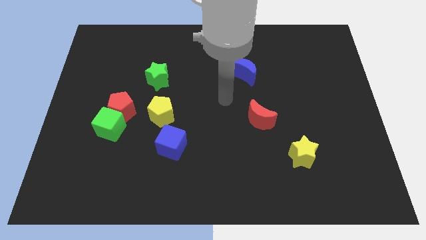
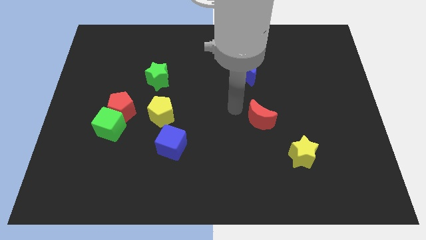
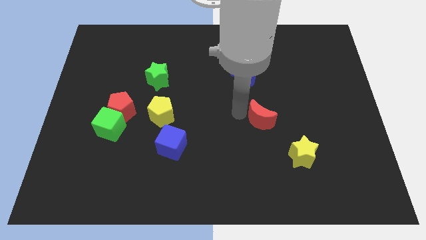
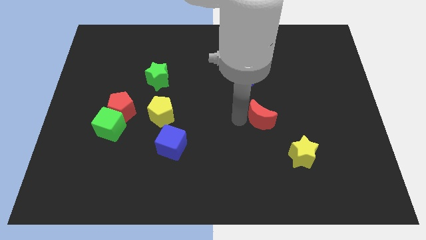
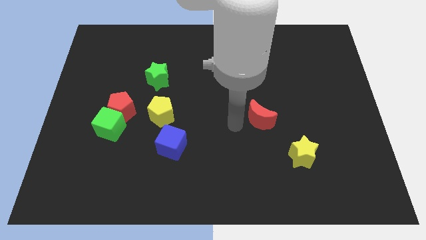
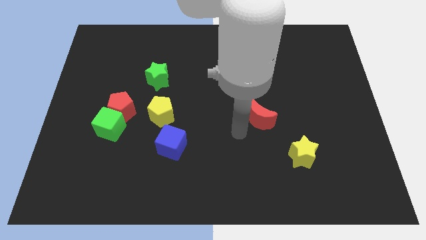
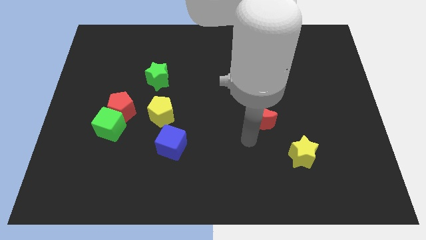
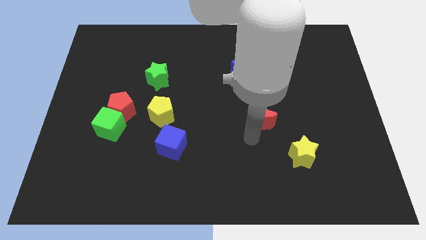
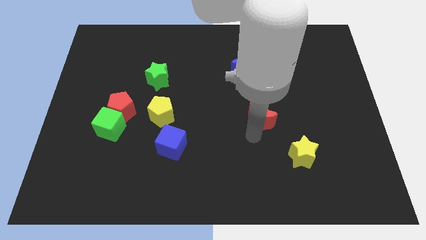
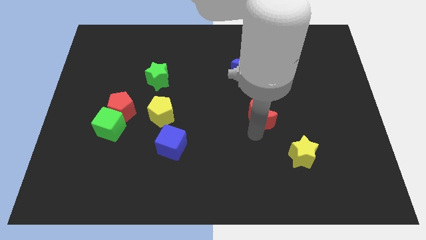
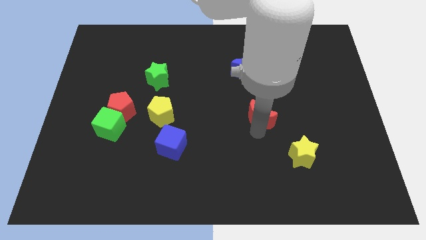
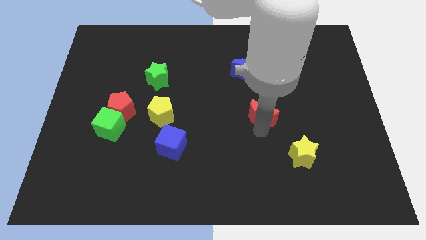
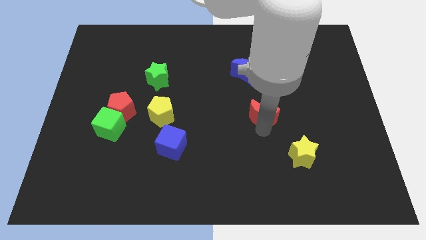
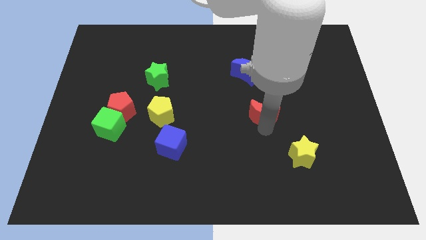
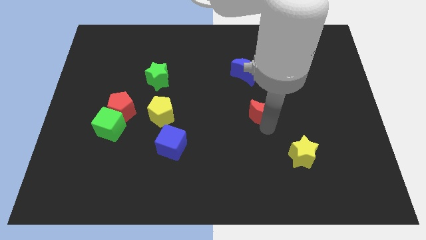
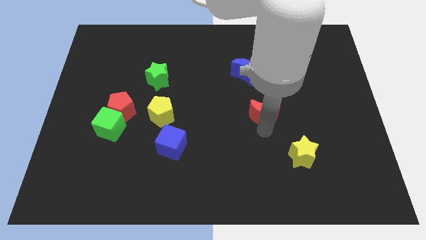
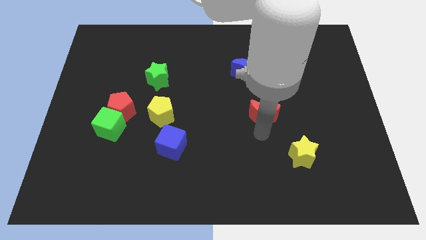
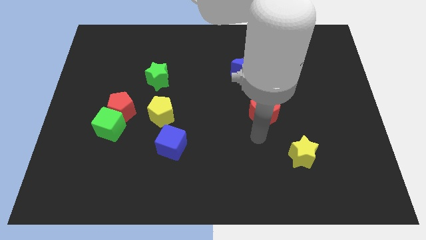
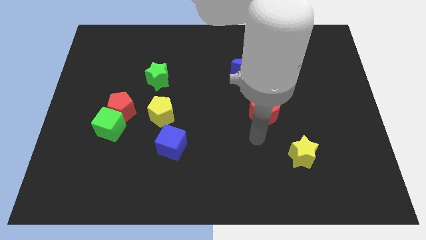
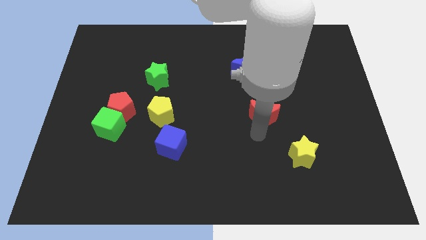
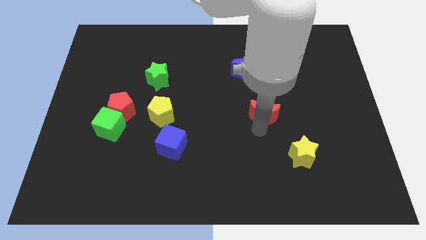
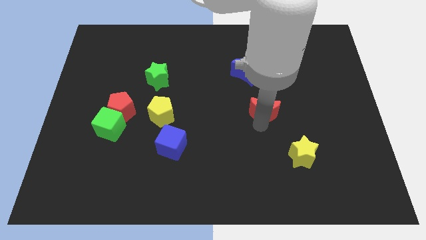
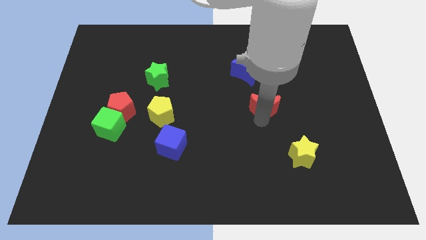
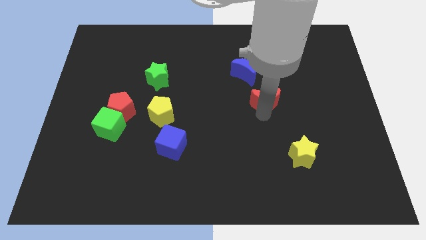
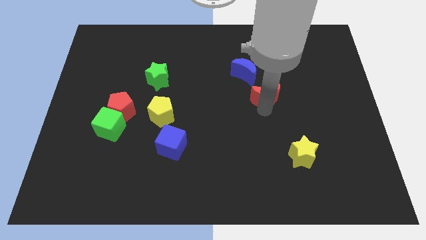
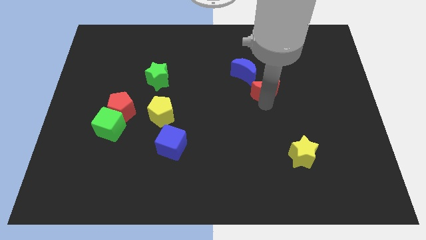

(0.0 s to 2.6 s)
move the red moon up slightly

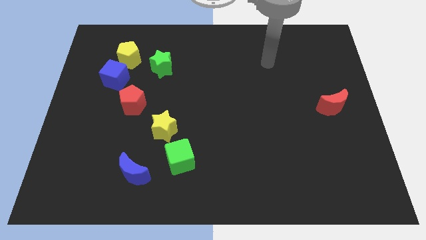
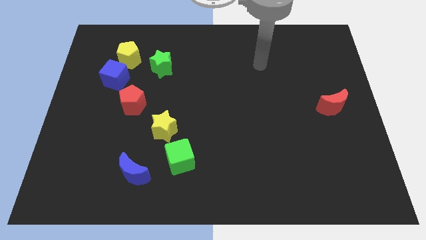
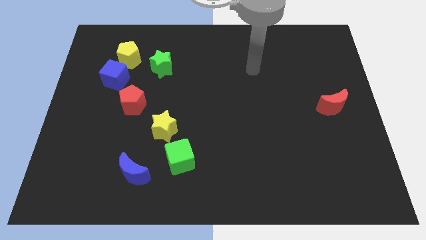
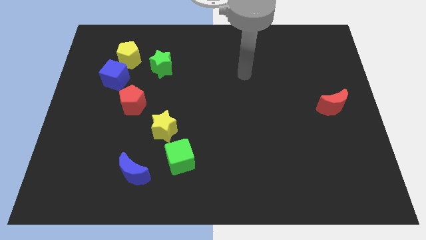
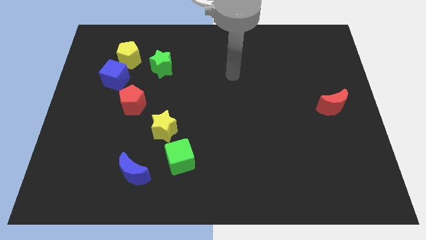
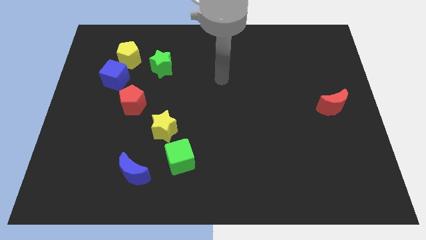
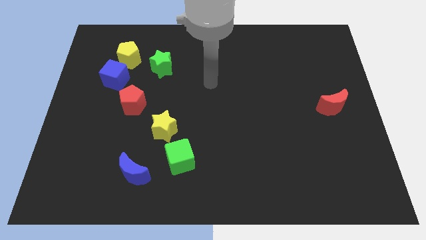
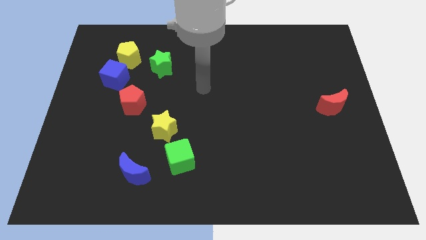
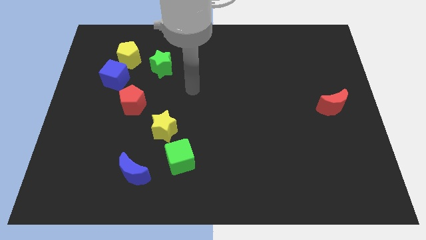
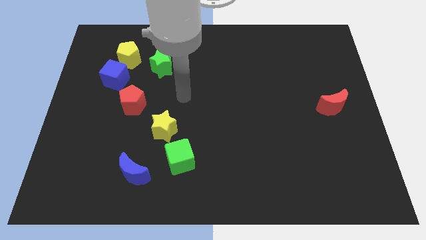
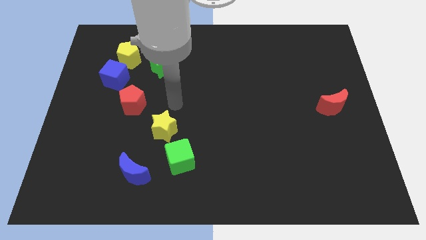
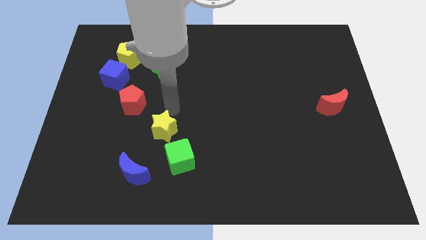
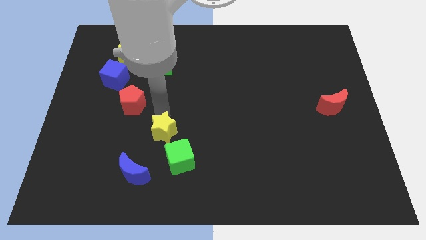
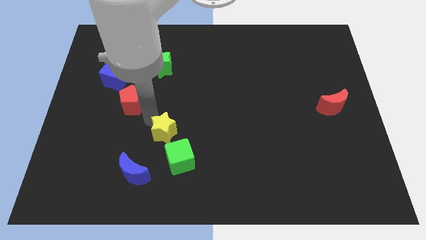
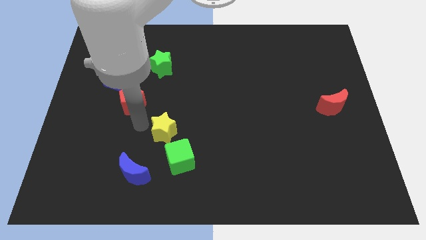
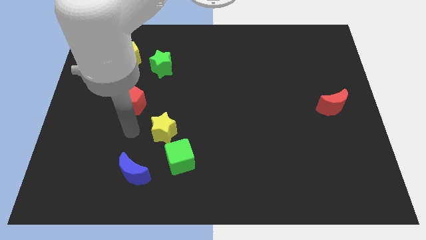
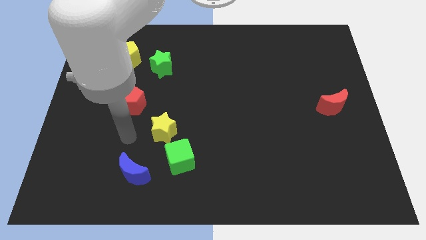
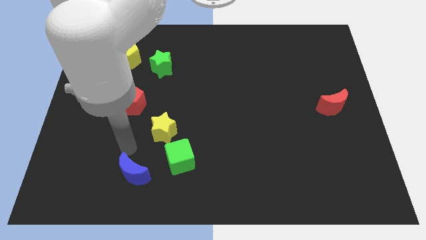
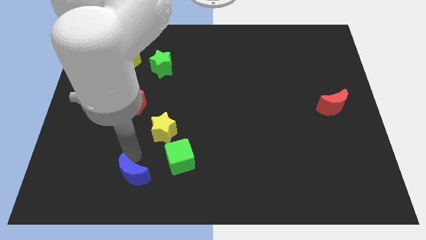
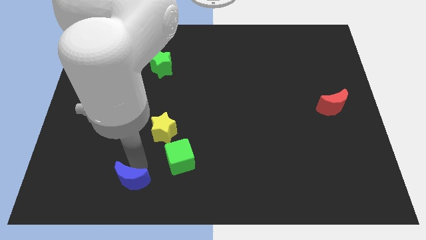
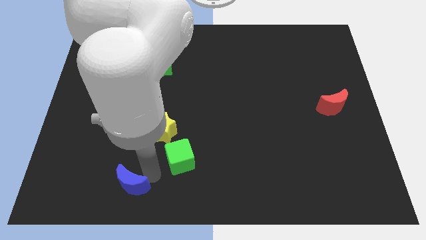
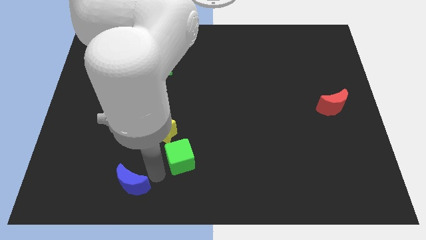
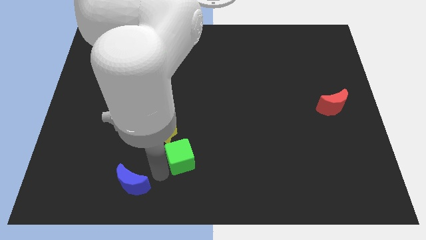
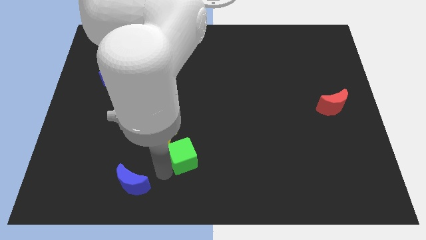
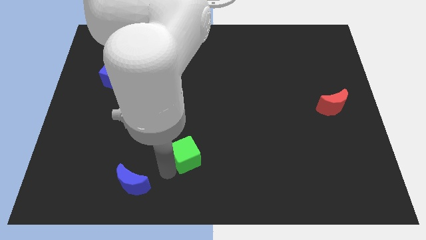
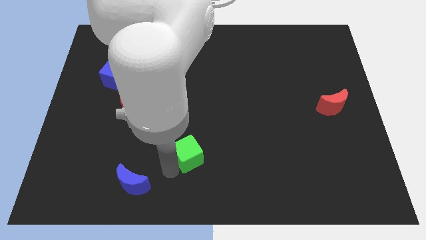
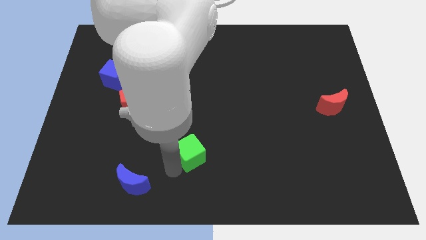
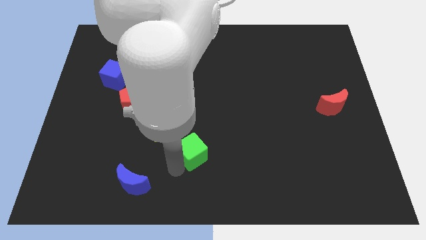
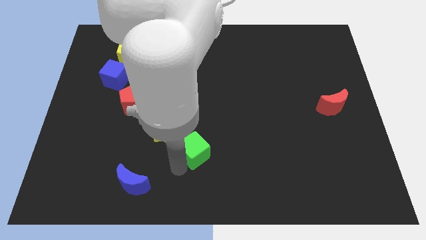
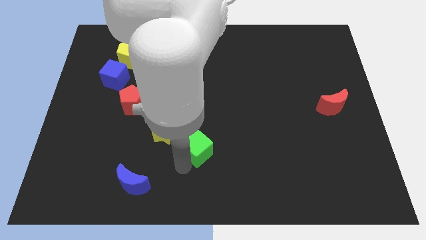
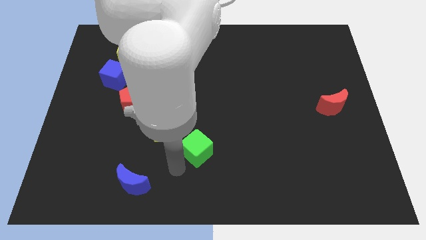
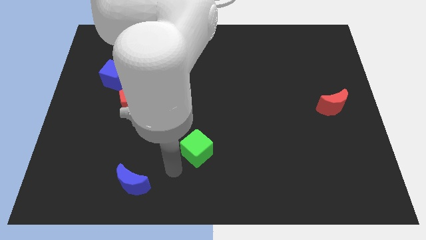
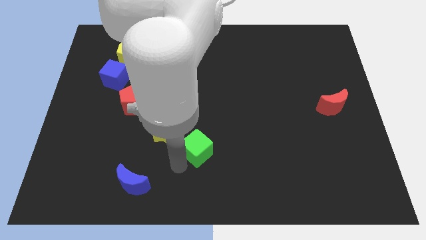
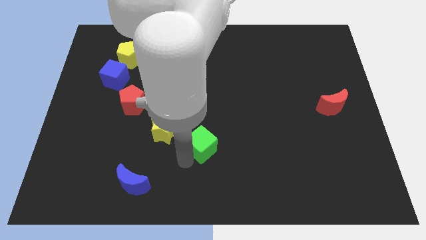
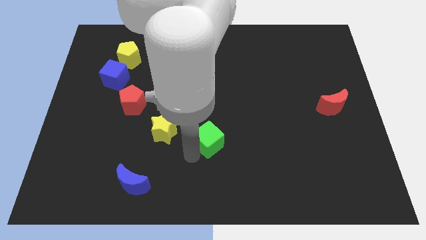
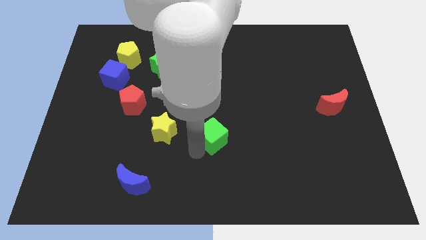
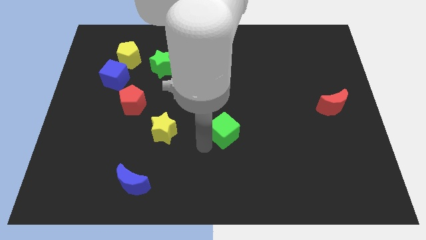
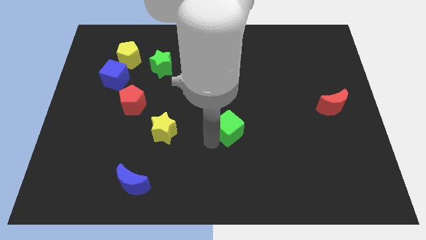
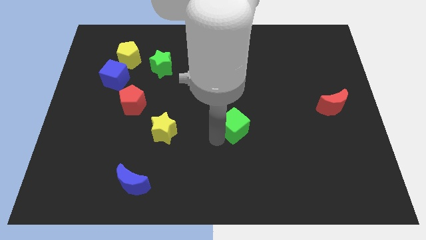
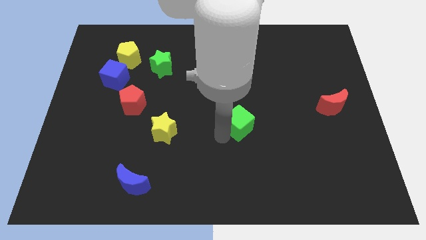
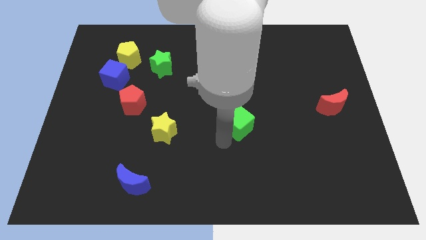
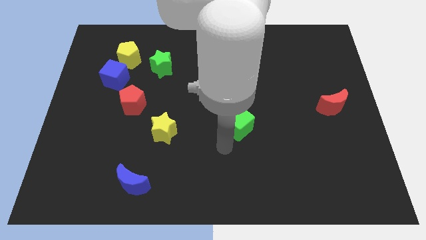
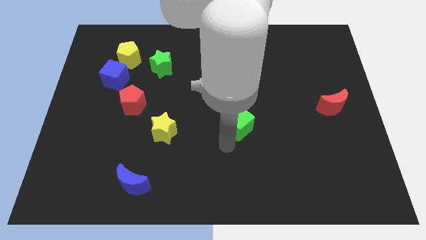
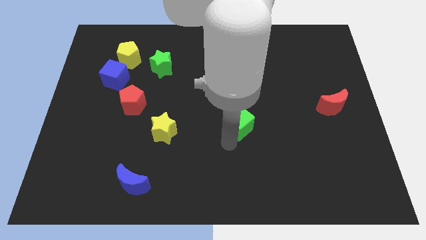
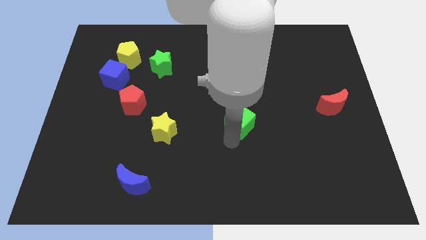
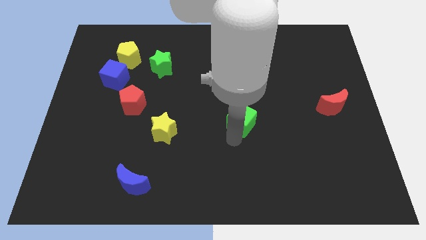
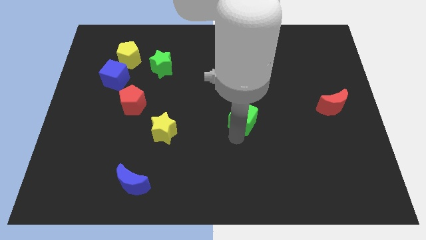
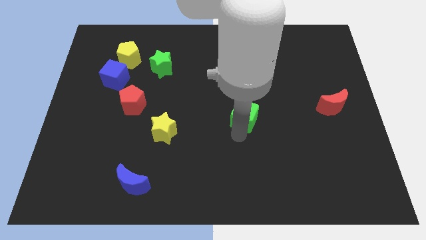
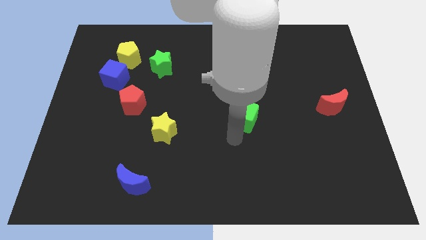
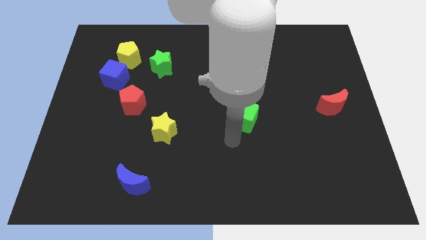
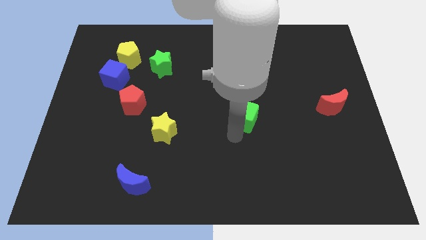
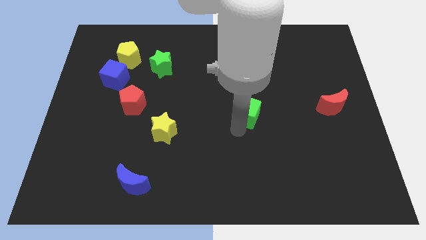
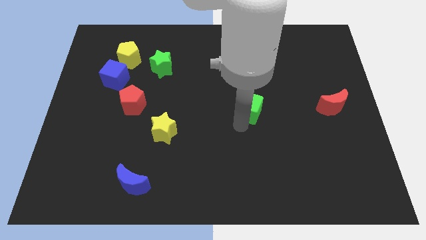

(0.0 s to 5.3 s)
slide the green cube up and to the right
